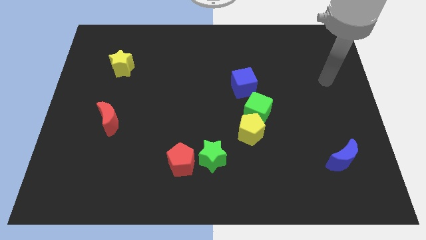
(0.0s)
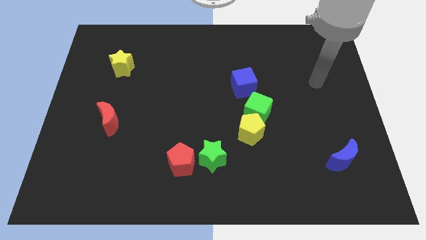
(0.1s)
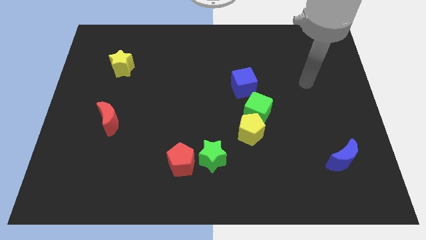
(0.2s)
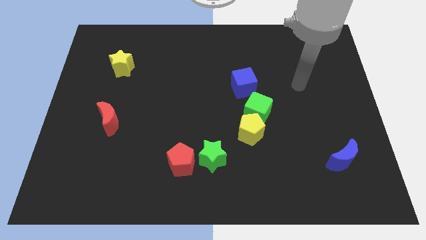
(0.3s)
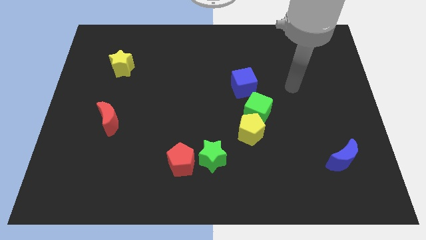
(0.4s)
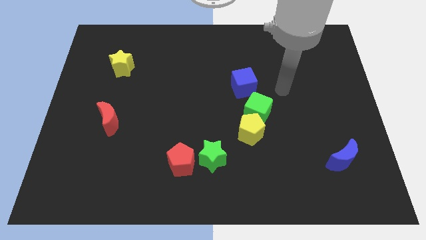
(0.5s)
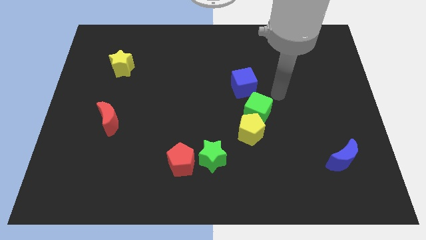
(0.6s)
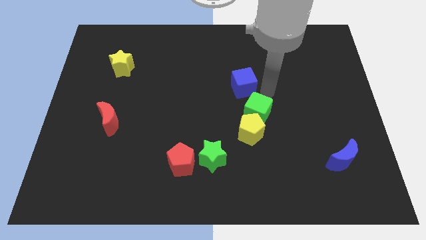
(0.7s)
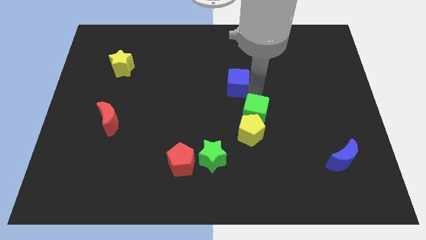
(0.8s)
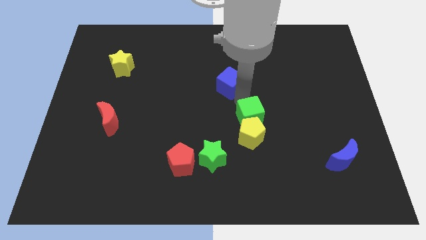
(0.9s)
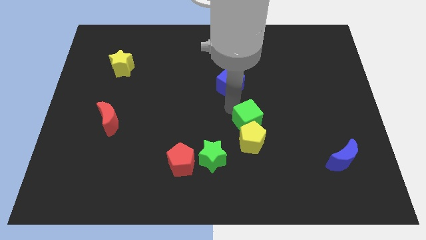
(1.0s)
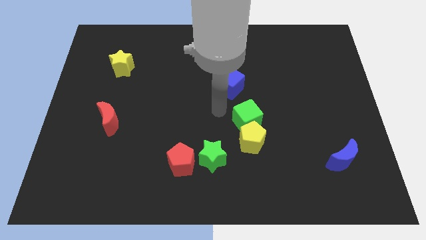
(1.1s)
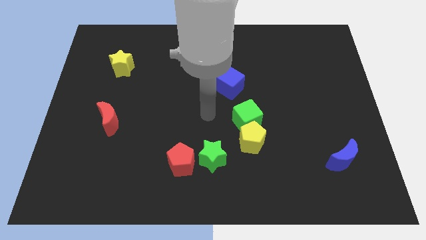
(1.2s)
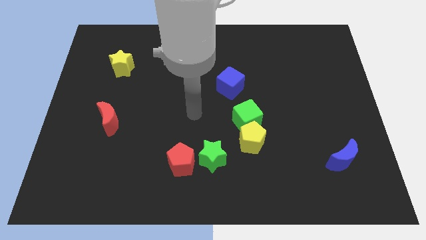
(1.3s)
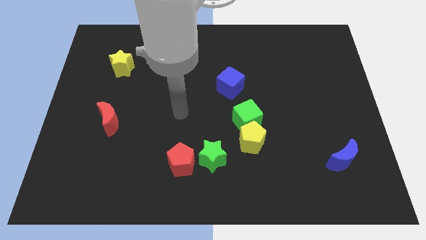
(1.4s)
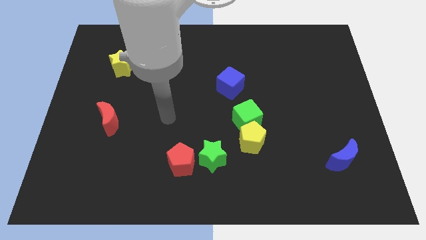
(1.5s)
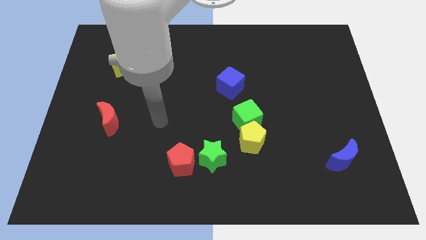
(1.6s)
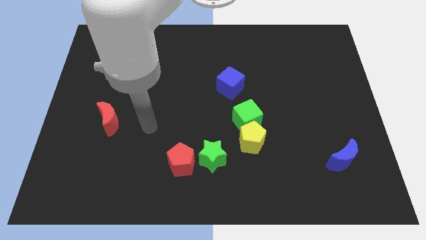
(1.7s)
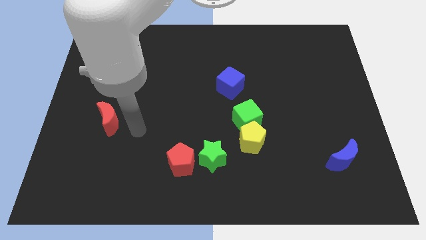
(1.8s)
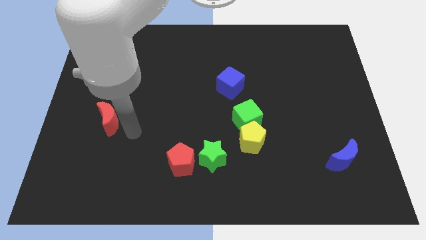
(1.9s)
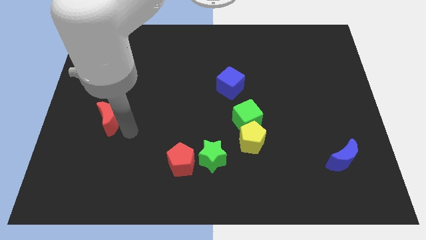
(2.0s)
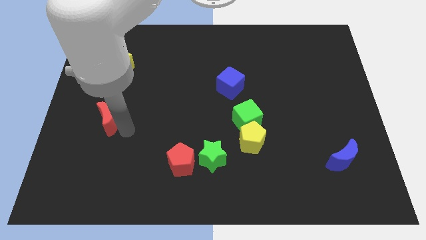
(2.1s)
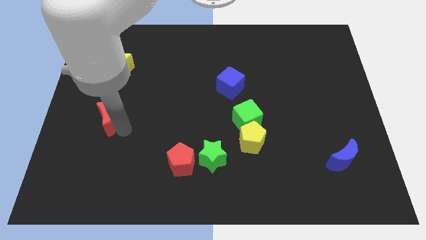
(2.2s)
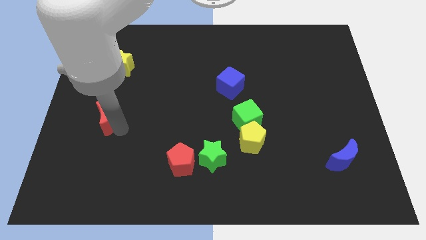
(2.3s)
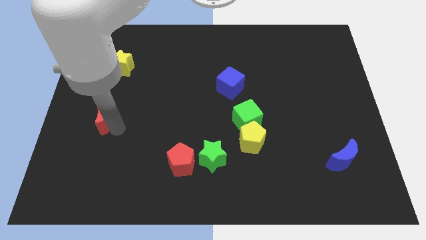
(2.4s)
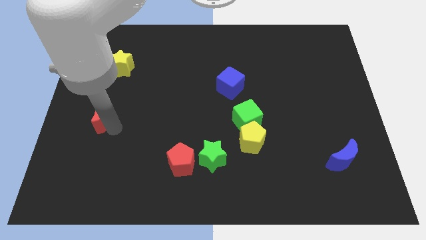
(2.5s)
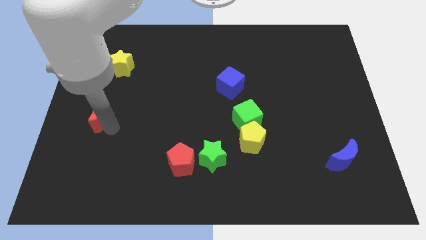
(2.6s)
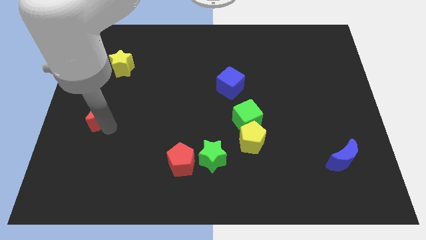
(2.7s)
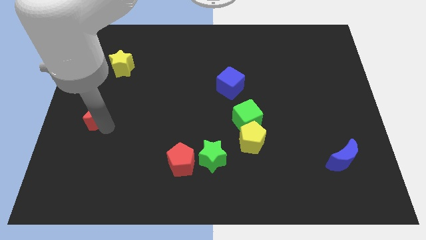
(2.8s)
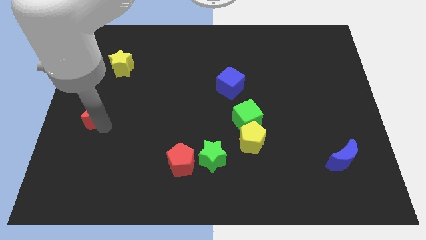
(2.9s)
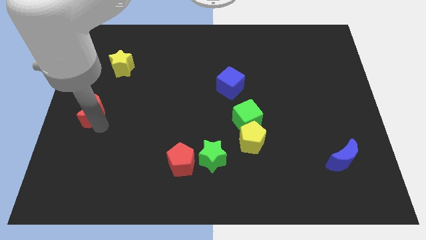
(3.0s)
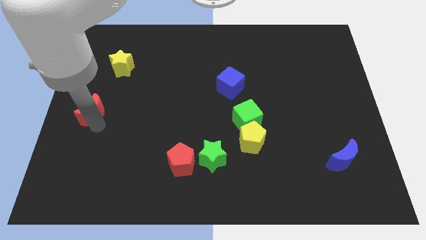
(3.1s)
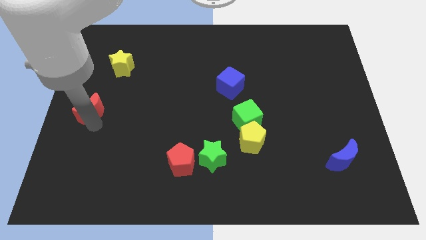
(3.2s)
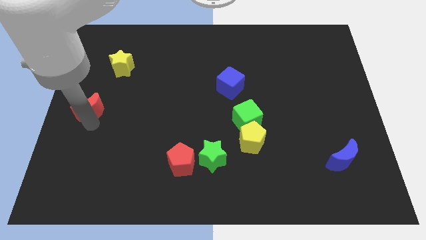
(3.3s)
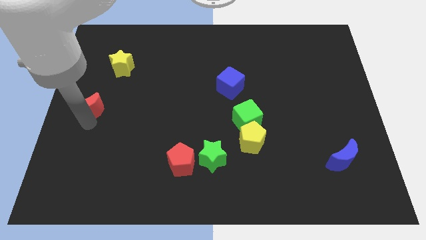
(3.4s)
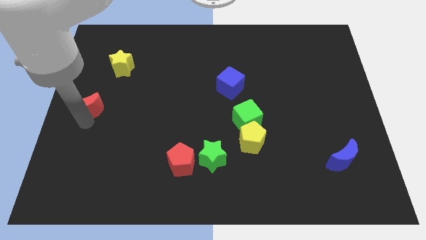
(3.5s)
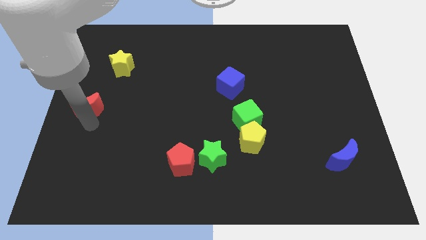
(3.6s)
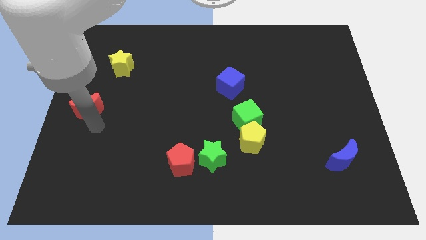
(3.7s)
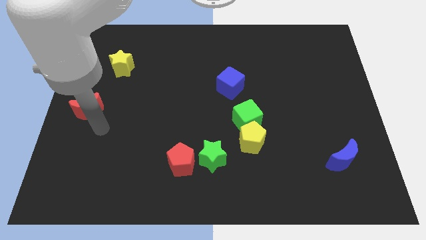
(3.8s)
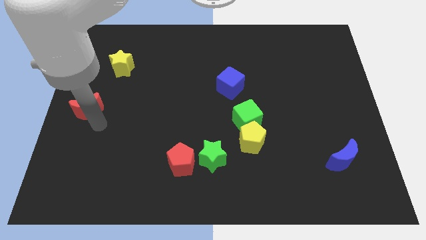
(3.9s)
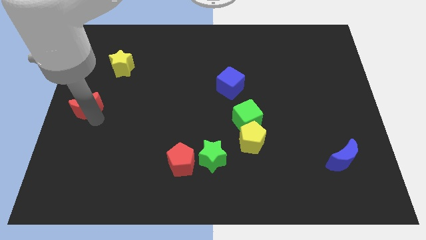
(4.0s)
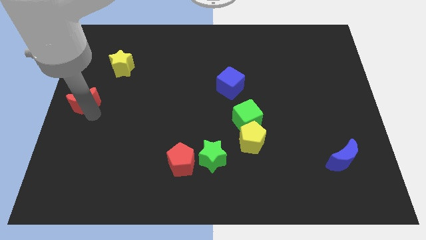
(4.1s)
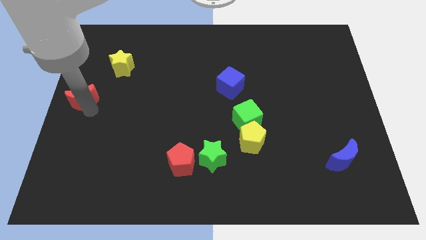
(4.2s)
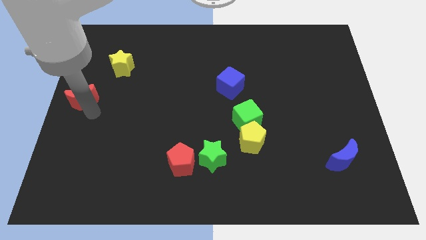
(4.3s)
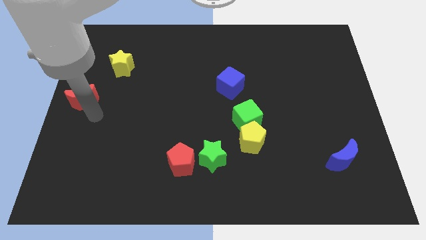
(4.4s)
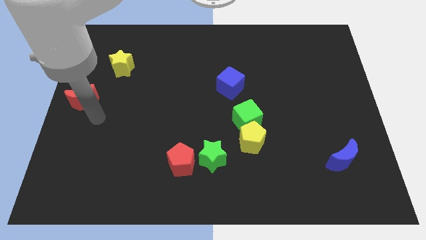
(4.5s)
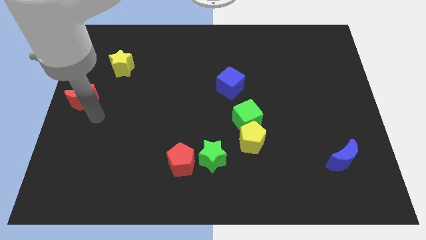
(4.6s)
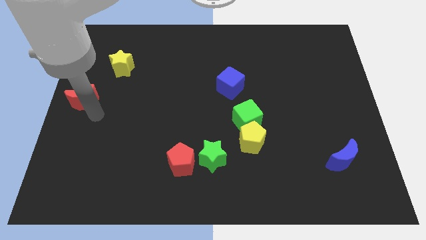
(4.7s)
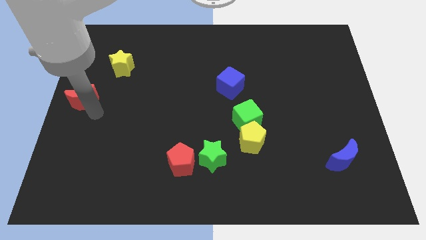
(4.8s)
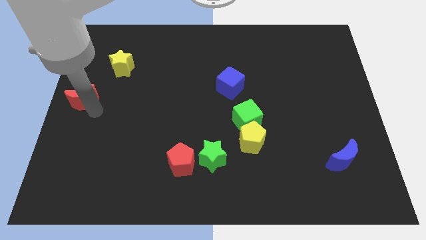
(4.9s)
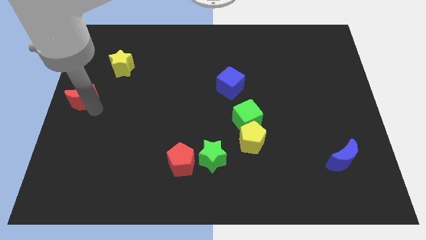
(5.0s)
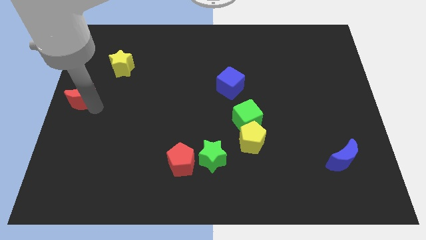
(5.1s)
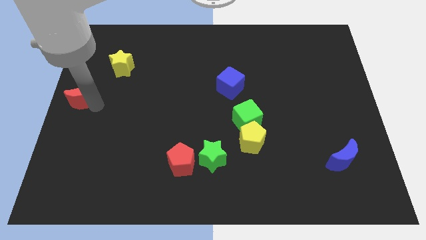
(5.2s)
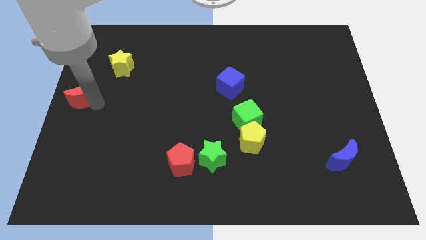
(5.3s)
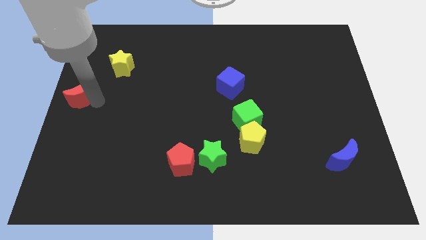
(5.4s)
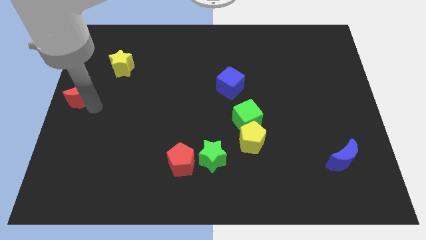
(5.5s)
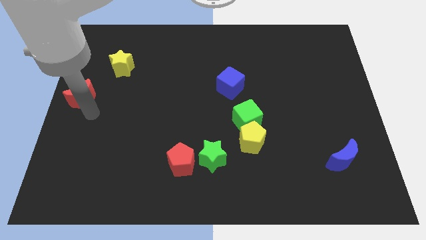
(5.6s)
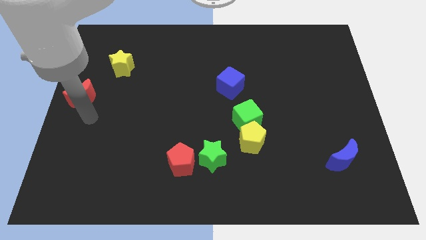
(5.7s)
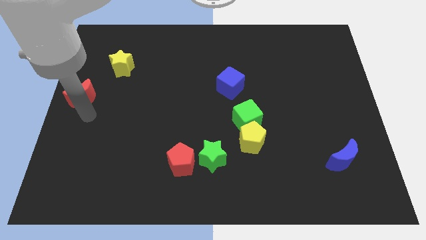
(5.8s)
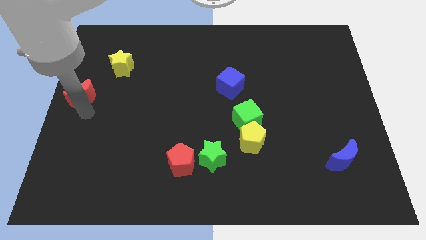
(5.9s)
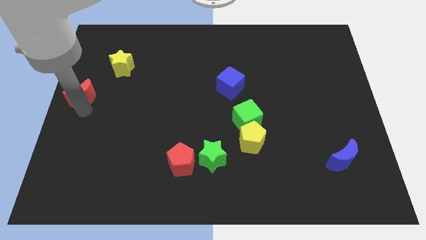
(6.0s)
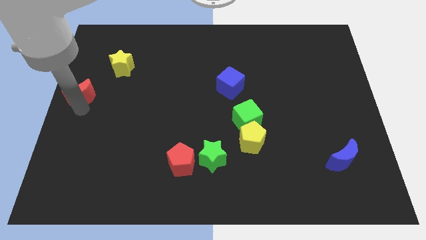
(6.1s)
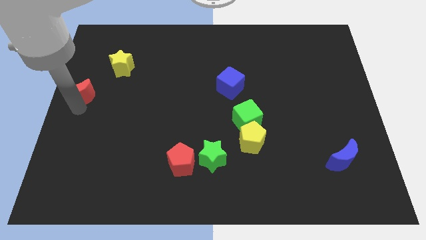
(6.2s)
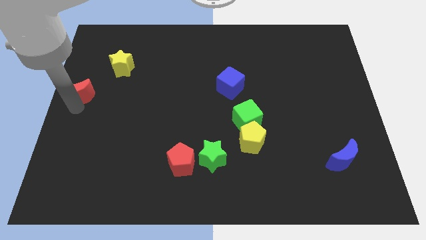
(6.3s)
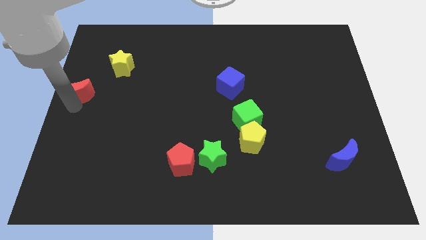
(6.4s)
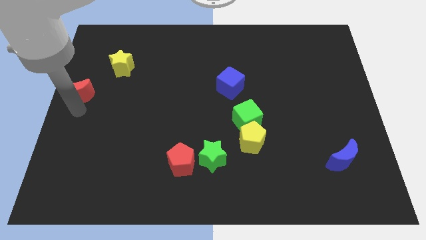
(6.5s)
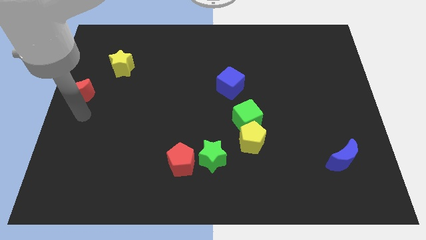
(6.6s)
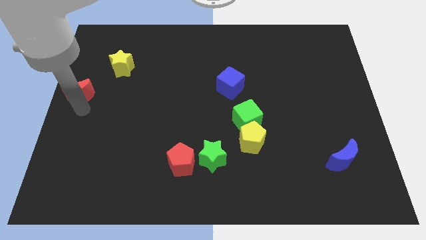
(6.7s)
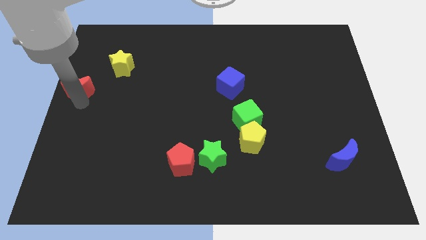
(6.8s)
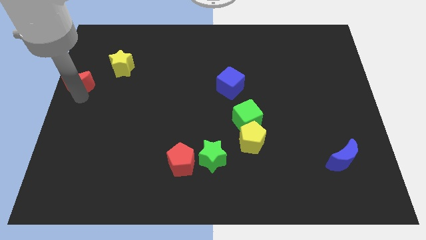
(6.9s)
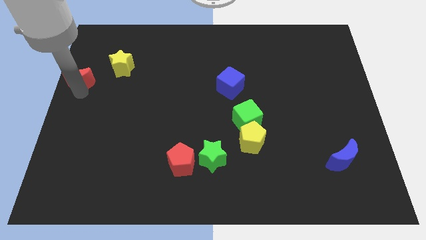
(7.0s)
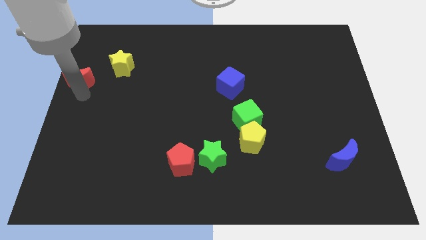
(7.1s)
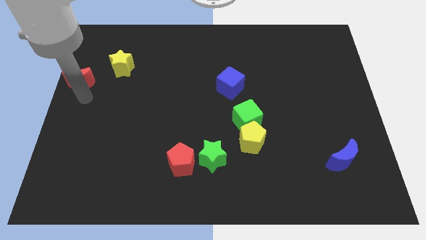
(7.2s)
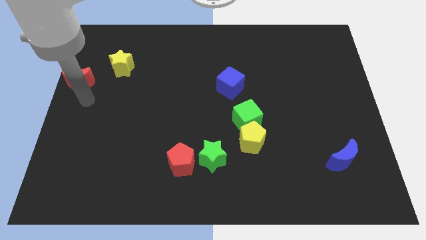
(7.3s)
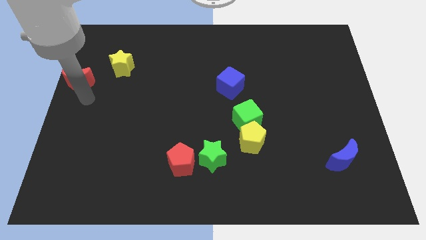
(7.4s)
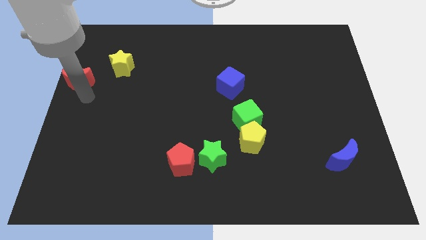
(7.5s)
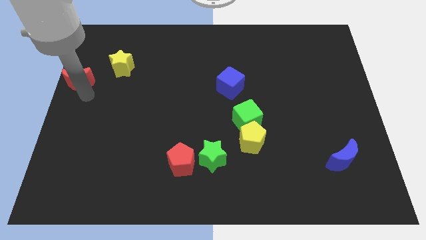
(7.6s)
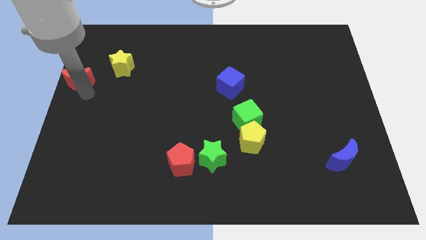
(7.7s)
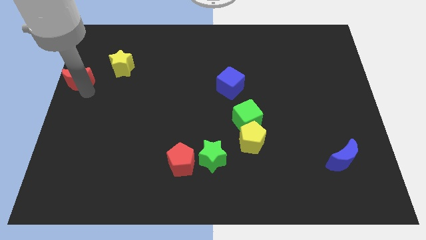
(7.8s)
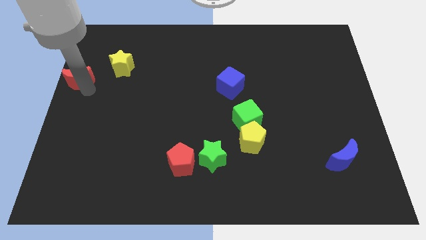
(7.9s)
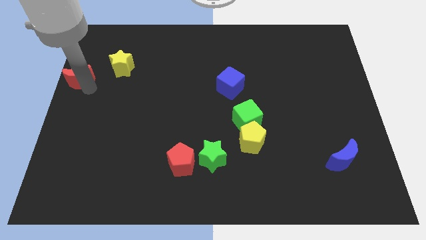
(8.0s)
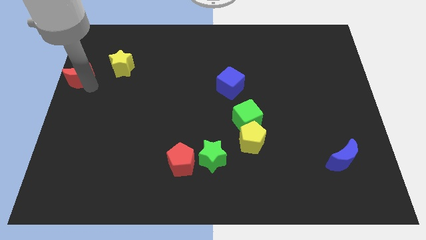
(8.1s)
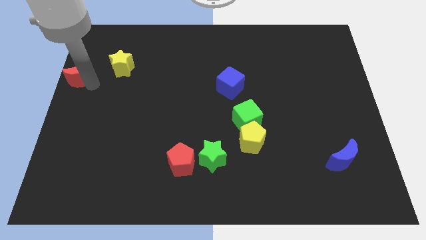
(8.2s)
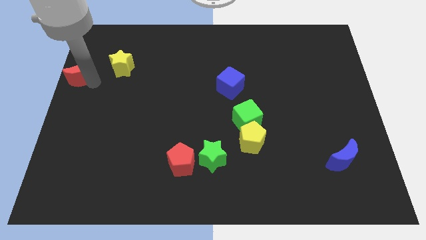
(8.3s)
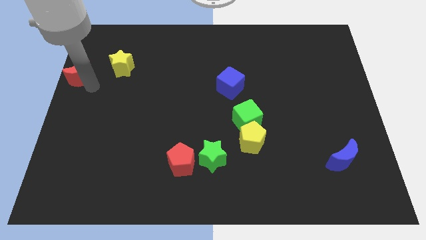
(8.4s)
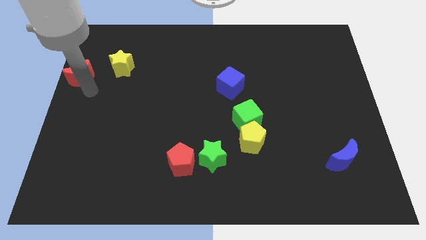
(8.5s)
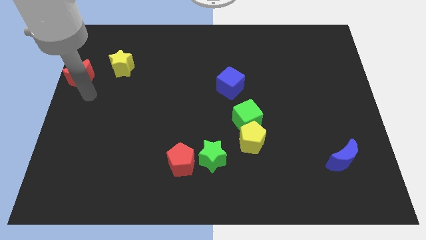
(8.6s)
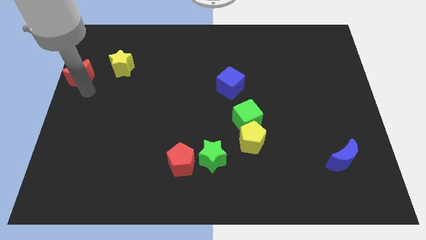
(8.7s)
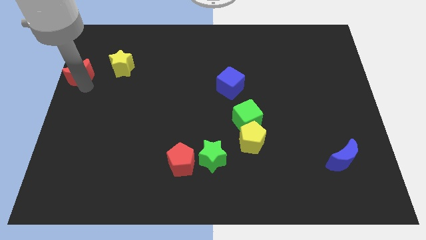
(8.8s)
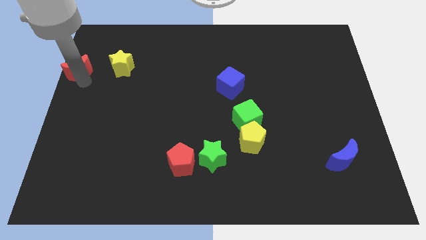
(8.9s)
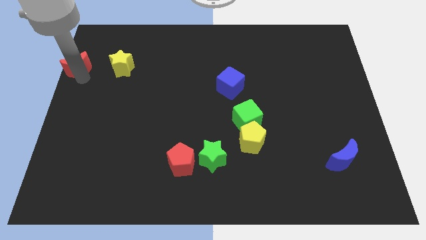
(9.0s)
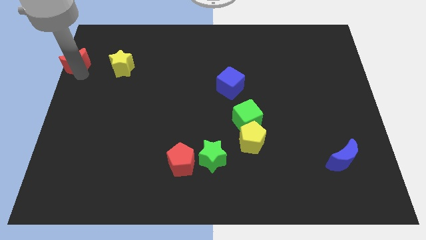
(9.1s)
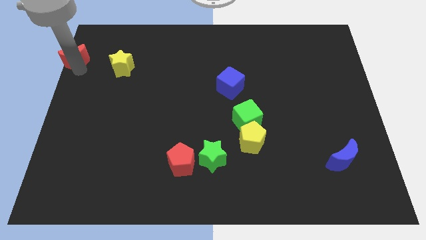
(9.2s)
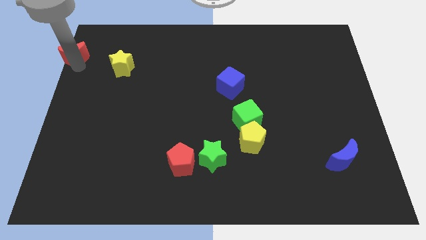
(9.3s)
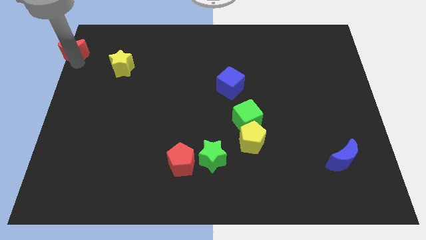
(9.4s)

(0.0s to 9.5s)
push the red moon to the top left
